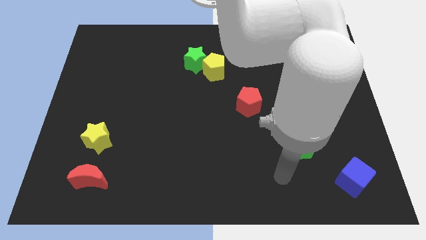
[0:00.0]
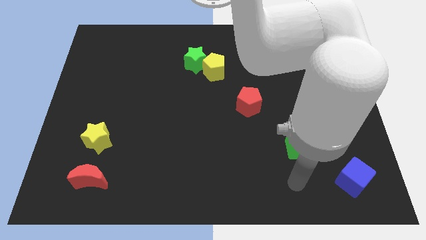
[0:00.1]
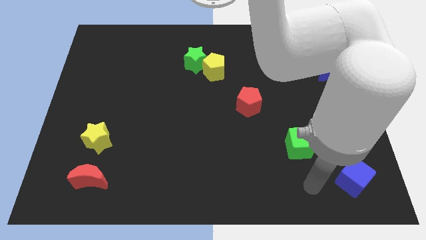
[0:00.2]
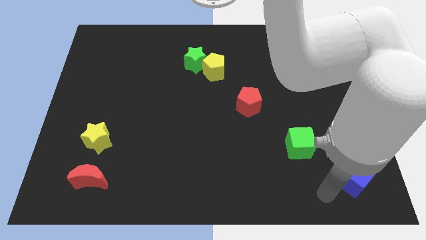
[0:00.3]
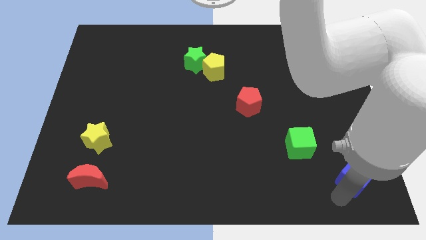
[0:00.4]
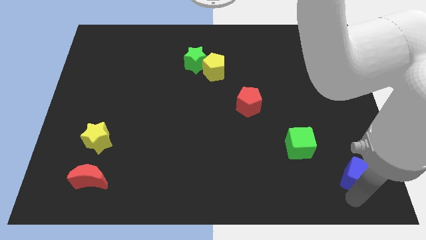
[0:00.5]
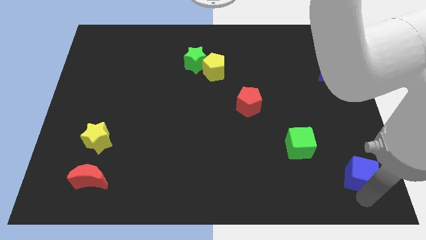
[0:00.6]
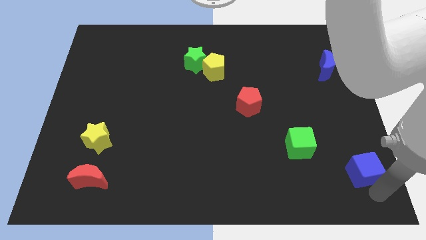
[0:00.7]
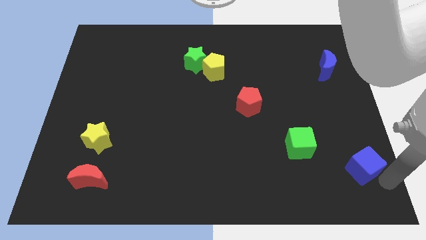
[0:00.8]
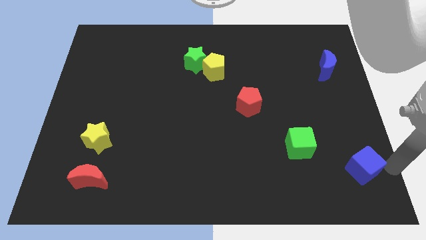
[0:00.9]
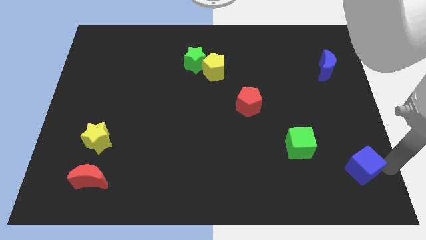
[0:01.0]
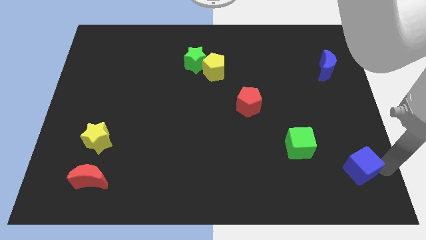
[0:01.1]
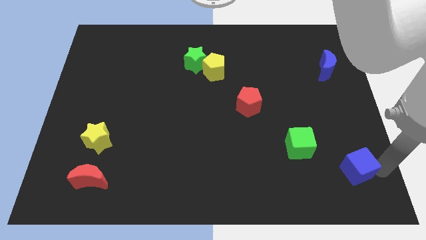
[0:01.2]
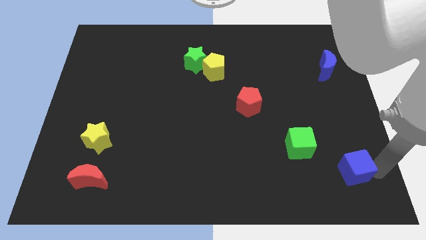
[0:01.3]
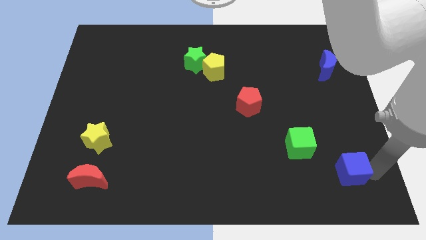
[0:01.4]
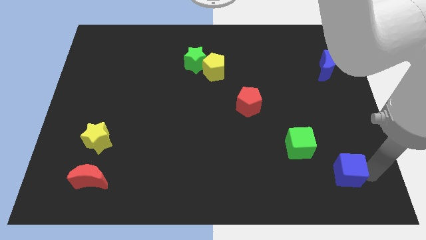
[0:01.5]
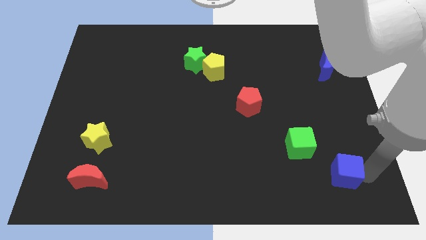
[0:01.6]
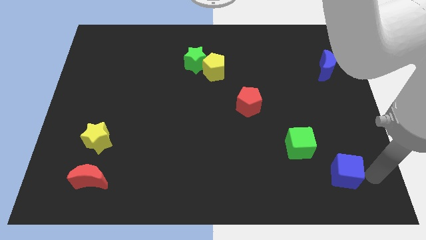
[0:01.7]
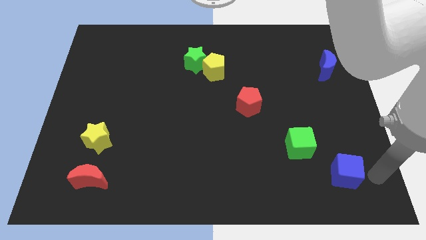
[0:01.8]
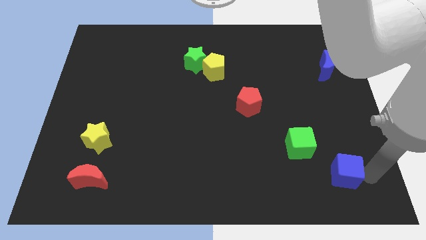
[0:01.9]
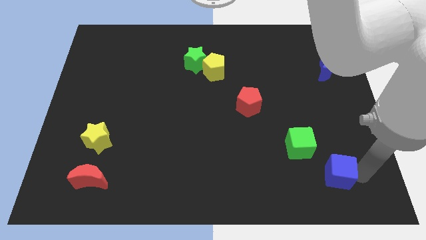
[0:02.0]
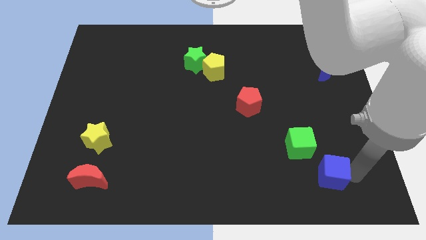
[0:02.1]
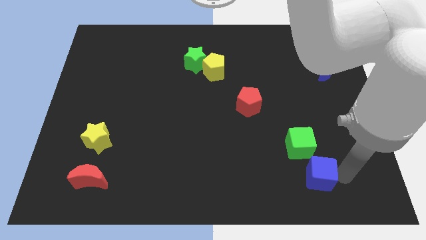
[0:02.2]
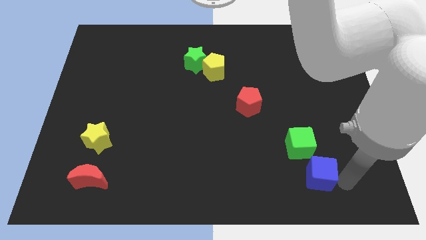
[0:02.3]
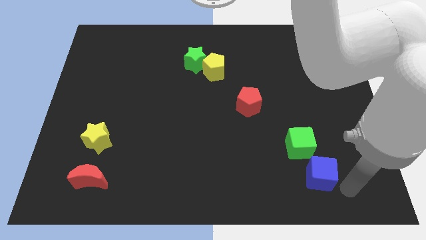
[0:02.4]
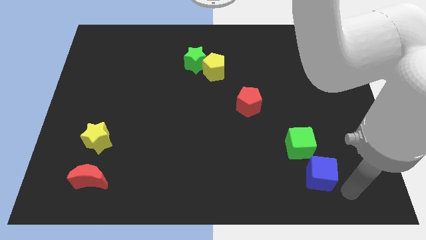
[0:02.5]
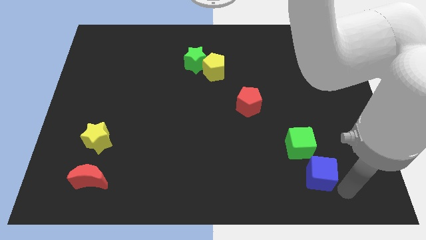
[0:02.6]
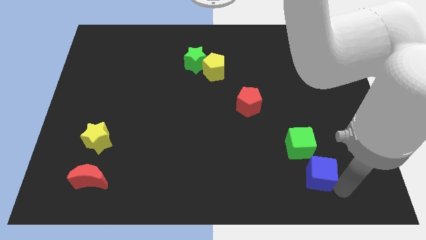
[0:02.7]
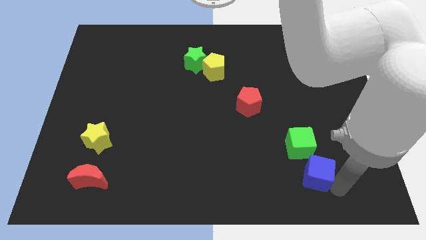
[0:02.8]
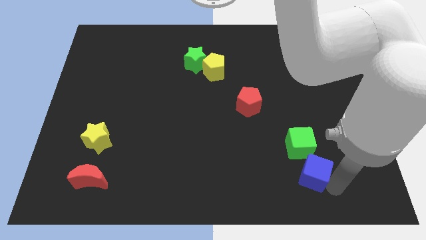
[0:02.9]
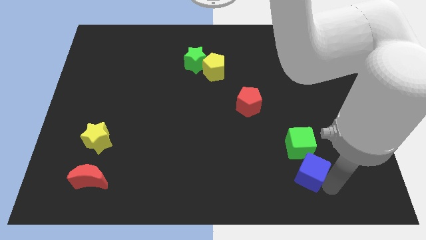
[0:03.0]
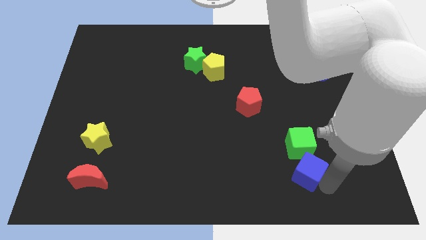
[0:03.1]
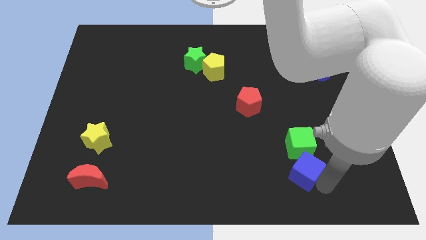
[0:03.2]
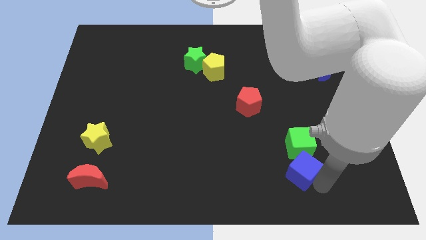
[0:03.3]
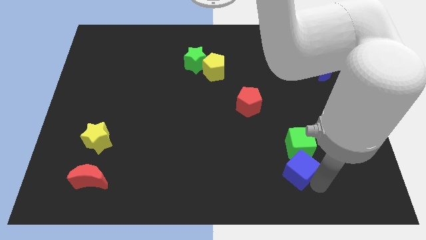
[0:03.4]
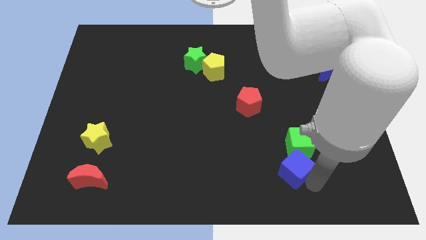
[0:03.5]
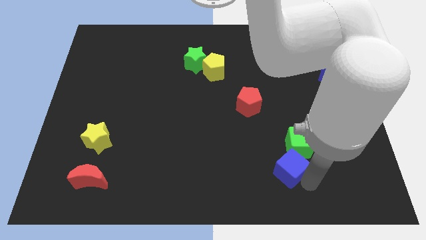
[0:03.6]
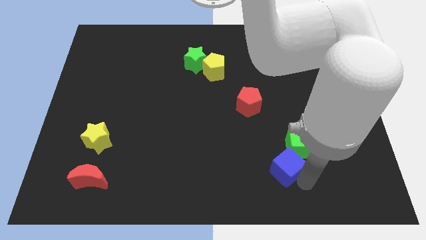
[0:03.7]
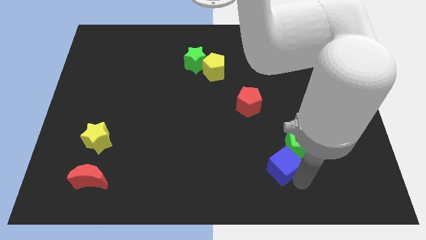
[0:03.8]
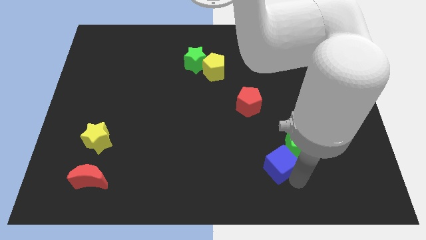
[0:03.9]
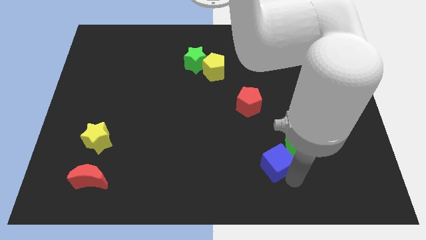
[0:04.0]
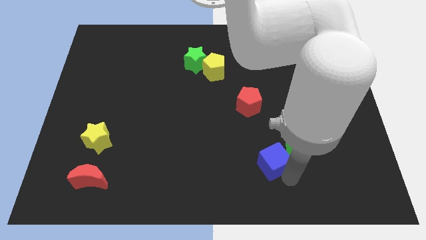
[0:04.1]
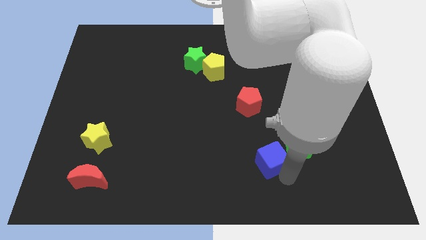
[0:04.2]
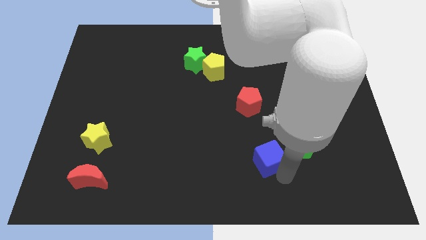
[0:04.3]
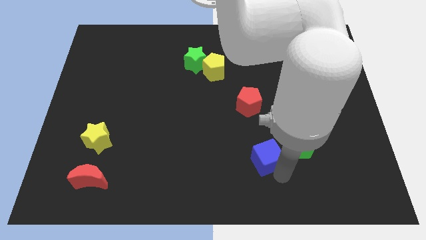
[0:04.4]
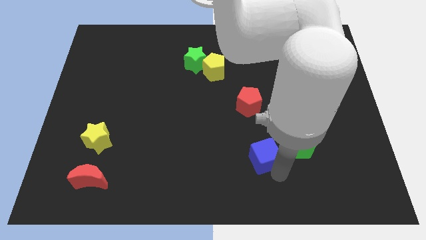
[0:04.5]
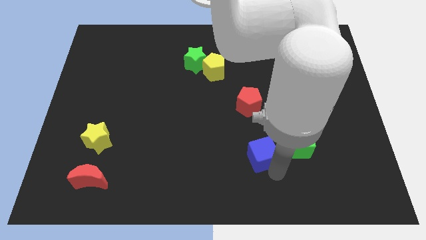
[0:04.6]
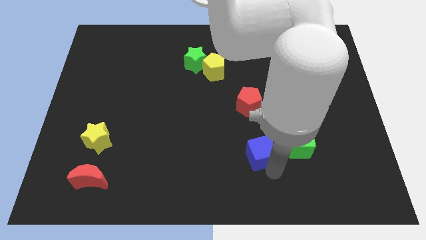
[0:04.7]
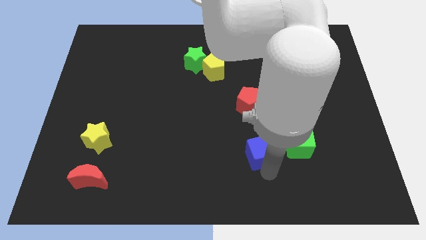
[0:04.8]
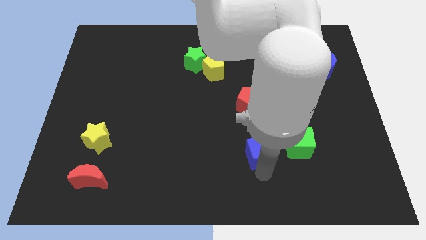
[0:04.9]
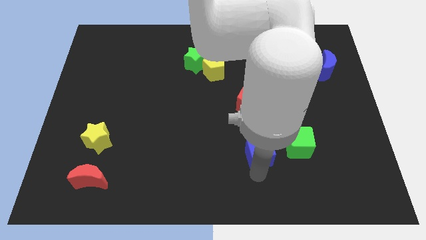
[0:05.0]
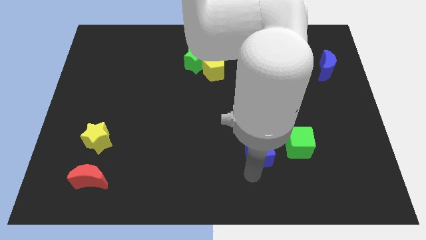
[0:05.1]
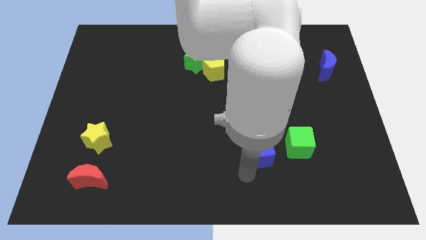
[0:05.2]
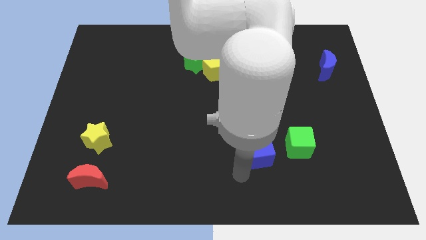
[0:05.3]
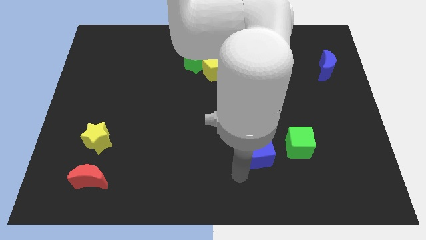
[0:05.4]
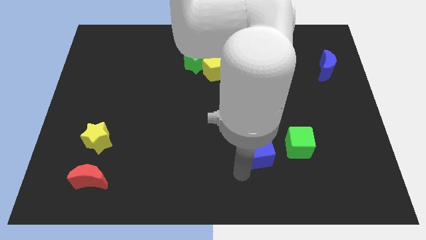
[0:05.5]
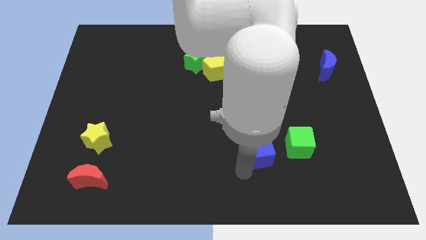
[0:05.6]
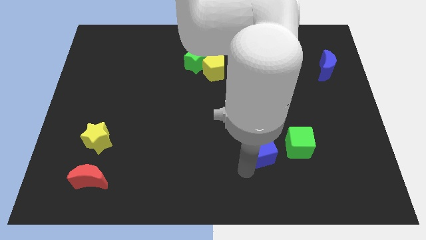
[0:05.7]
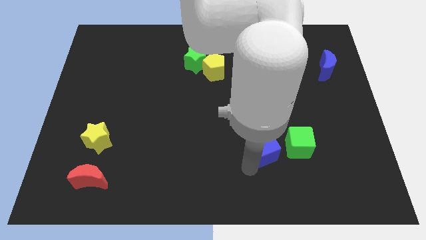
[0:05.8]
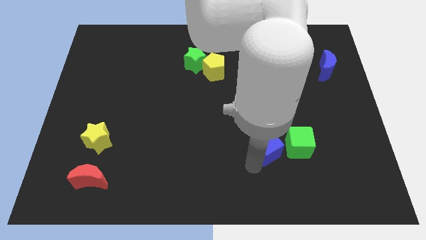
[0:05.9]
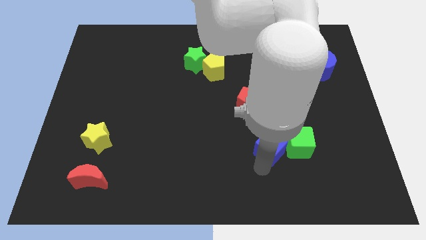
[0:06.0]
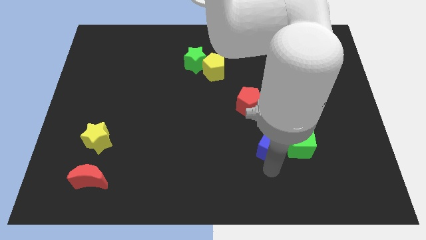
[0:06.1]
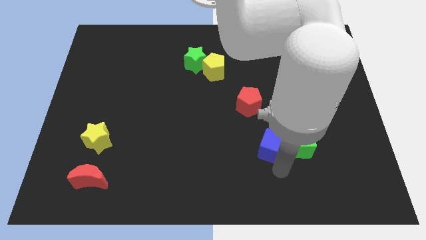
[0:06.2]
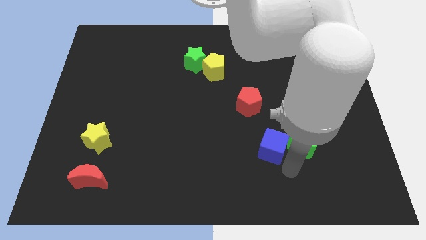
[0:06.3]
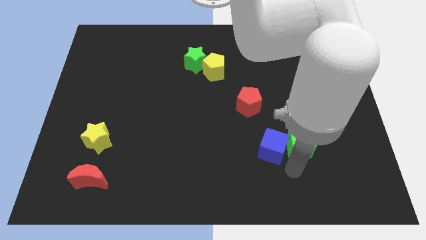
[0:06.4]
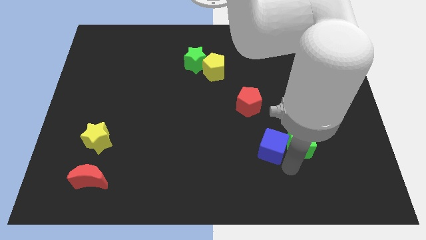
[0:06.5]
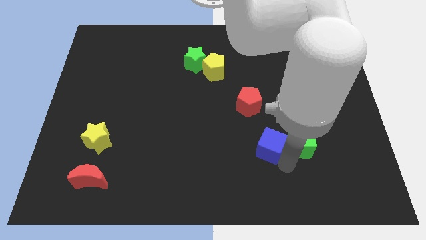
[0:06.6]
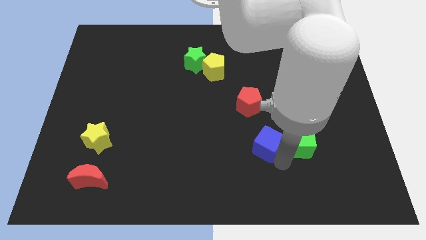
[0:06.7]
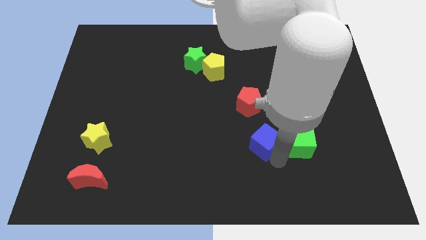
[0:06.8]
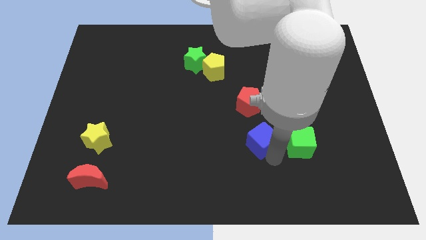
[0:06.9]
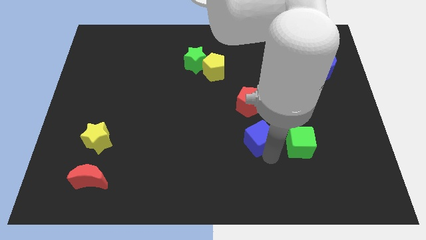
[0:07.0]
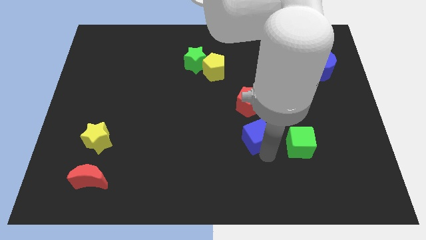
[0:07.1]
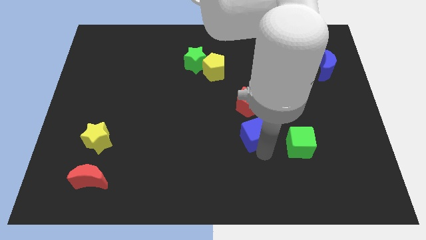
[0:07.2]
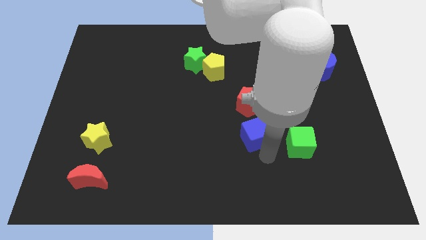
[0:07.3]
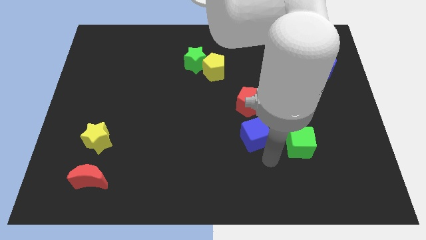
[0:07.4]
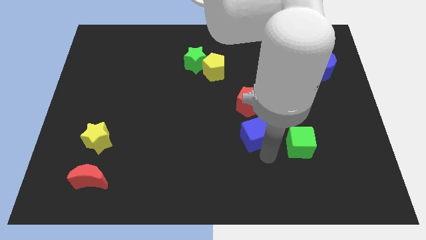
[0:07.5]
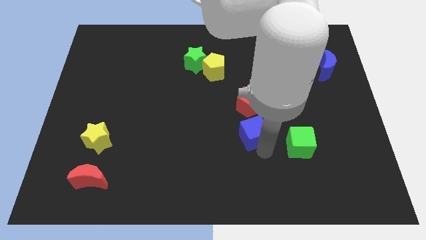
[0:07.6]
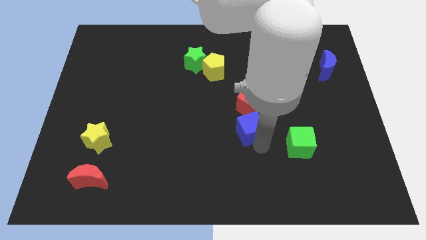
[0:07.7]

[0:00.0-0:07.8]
push the blue cube to the center
